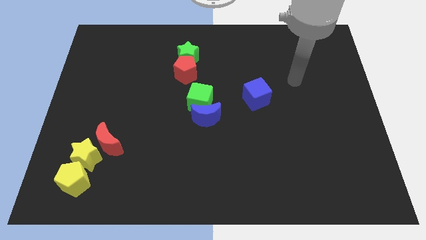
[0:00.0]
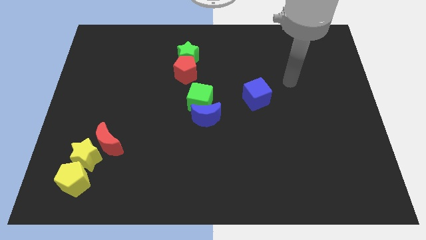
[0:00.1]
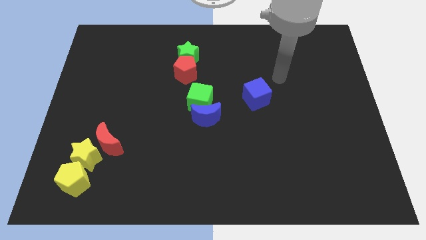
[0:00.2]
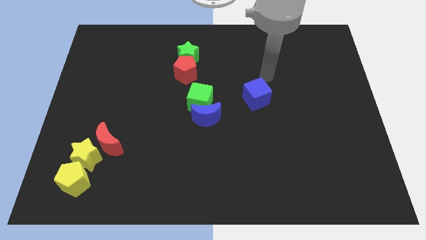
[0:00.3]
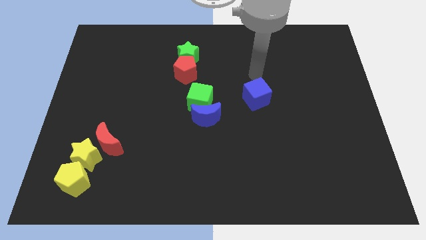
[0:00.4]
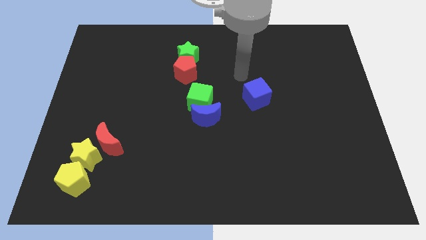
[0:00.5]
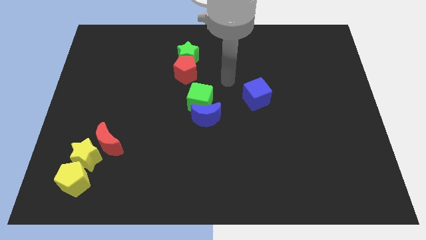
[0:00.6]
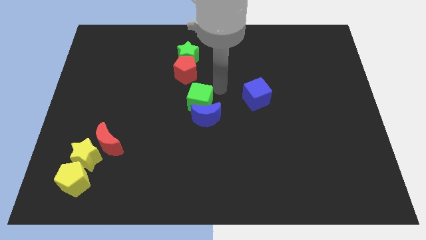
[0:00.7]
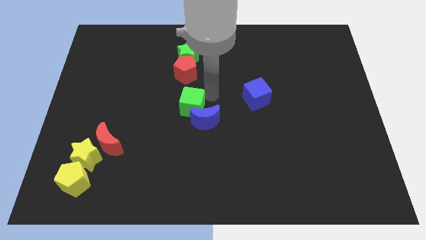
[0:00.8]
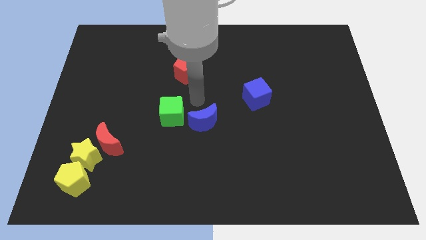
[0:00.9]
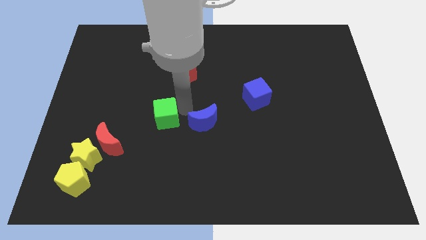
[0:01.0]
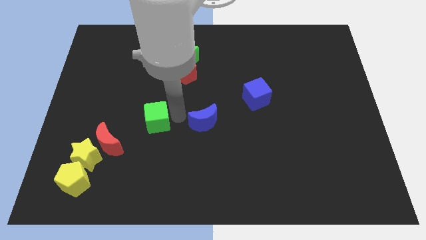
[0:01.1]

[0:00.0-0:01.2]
pull the blue moon apart from the green cube

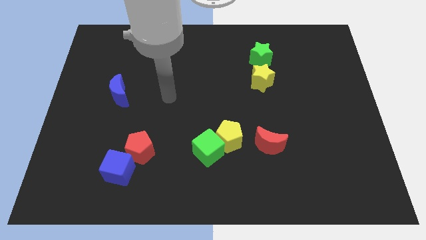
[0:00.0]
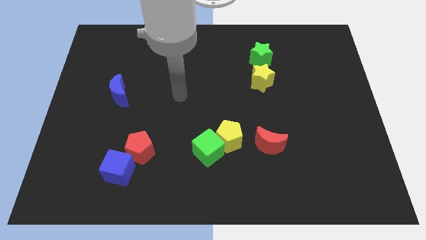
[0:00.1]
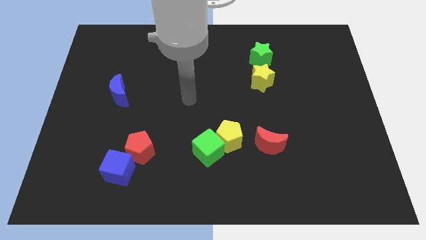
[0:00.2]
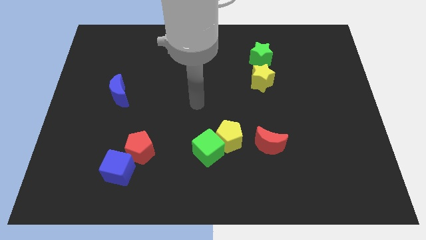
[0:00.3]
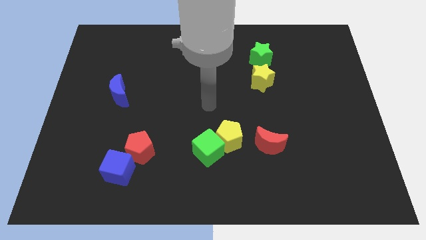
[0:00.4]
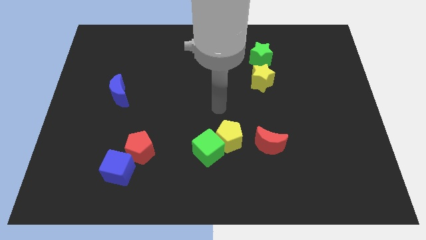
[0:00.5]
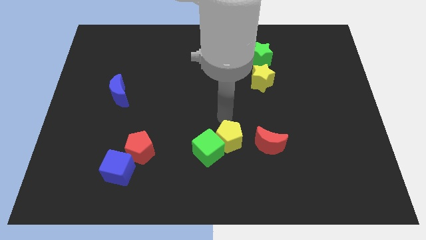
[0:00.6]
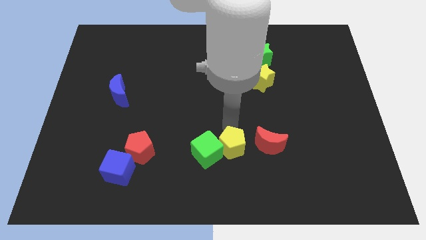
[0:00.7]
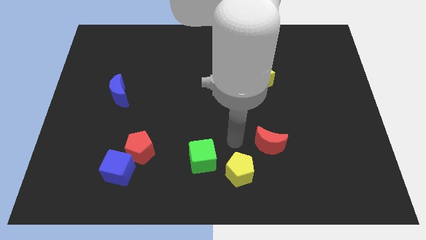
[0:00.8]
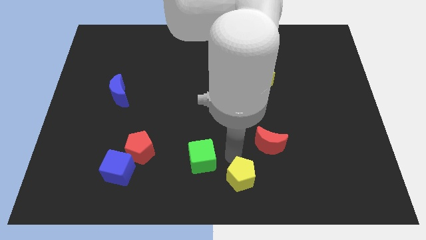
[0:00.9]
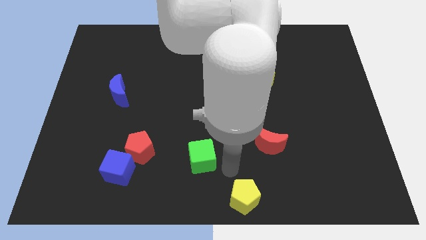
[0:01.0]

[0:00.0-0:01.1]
separate the green cube from the yellow pentagon

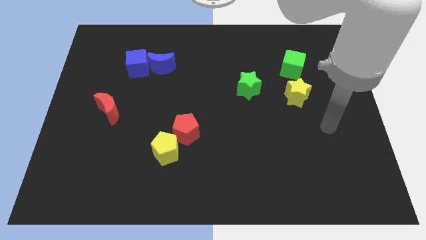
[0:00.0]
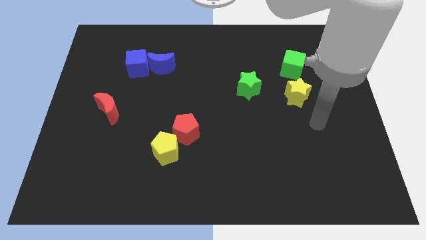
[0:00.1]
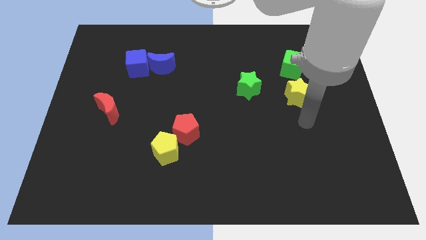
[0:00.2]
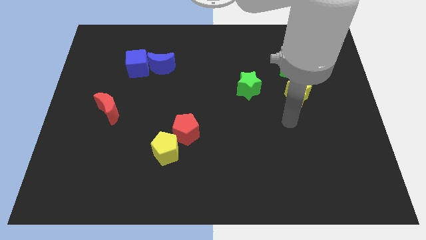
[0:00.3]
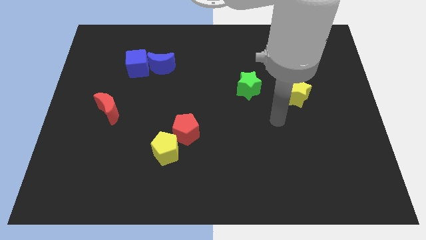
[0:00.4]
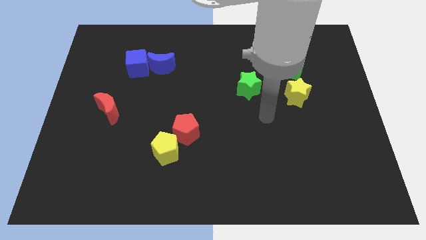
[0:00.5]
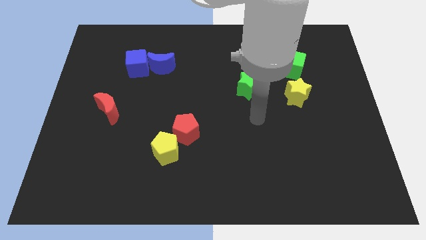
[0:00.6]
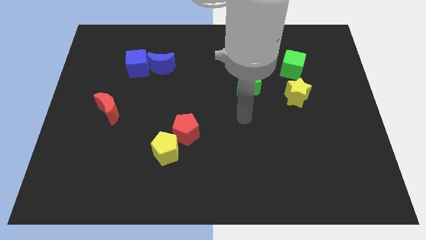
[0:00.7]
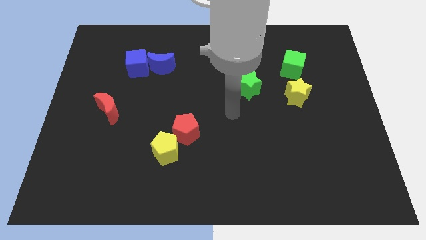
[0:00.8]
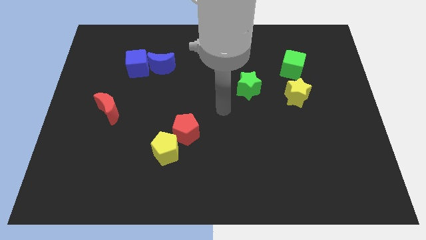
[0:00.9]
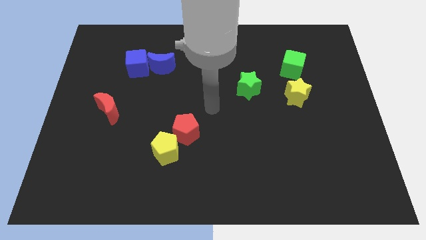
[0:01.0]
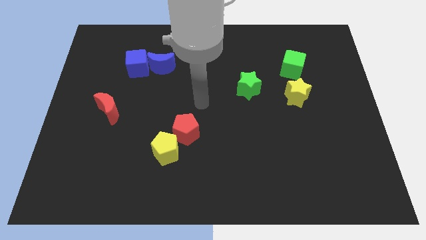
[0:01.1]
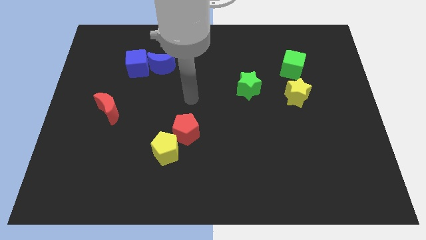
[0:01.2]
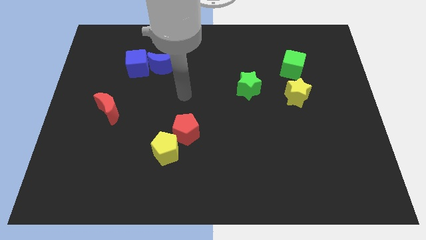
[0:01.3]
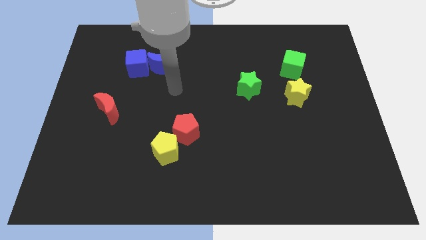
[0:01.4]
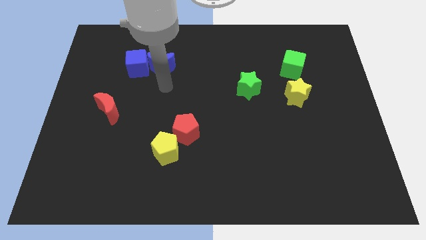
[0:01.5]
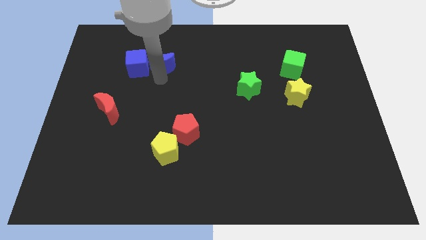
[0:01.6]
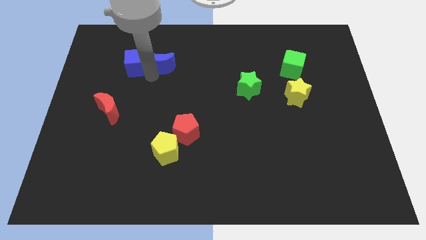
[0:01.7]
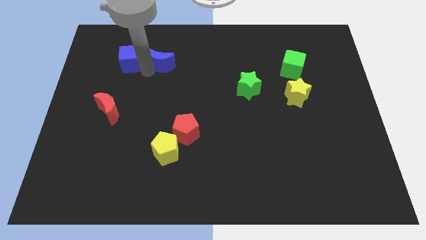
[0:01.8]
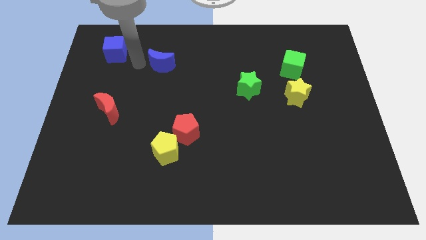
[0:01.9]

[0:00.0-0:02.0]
pull the blue moon apart from the blue cube

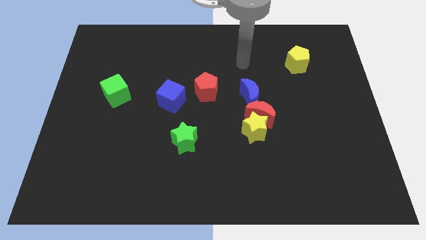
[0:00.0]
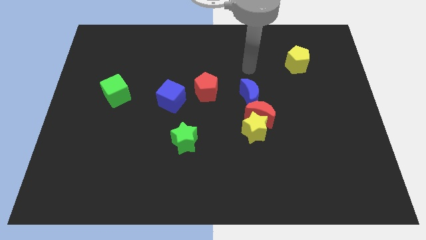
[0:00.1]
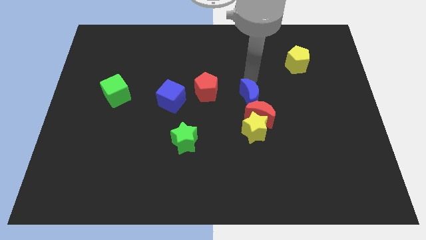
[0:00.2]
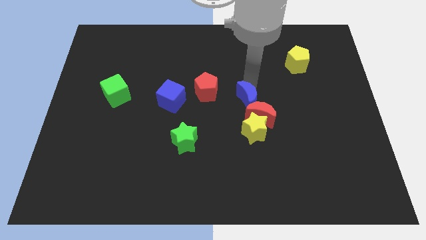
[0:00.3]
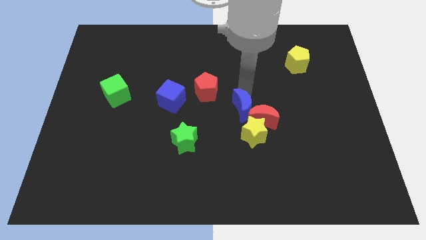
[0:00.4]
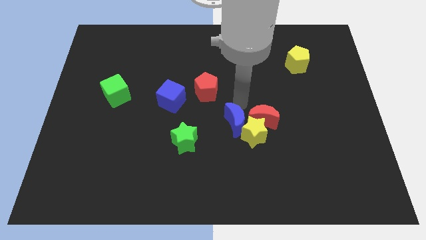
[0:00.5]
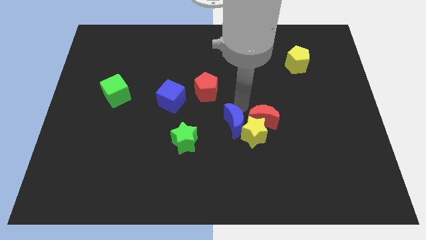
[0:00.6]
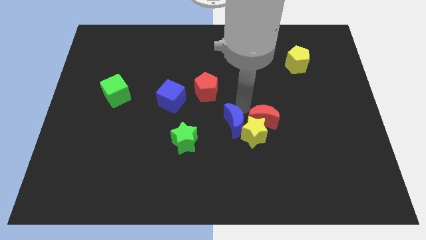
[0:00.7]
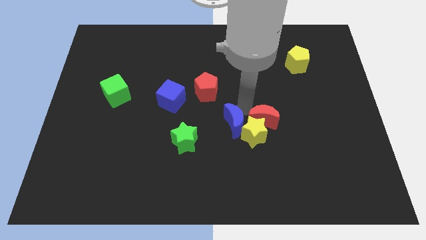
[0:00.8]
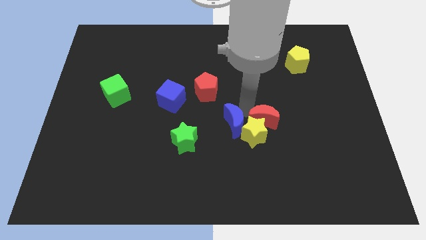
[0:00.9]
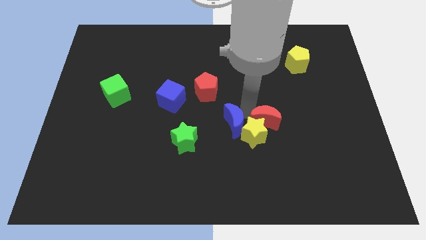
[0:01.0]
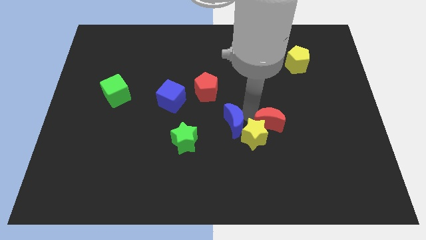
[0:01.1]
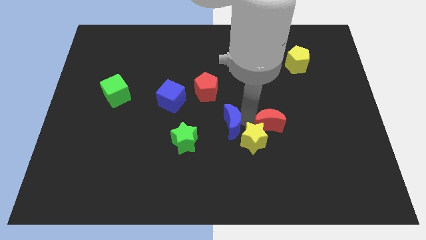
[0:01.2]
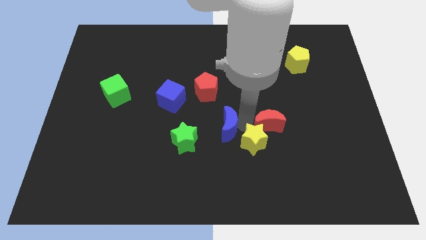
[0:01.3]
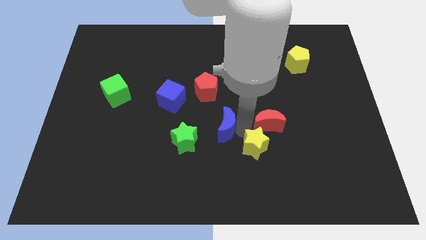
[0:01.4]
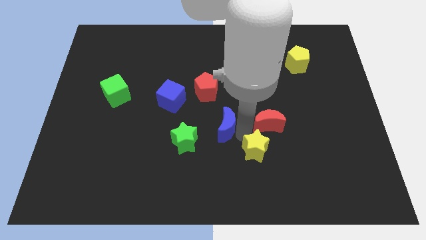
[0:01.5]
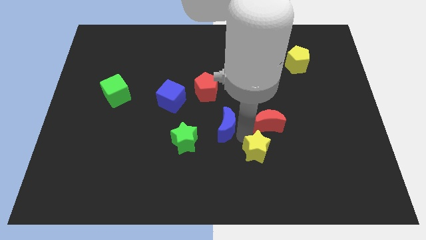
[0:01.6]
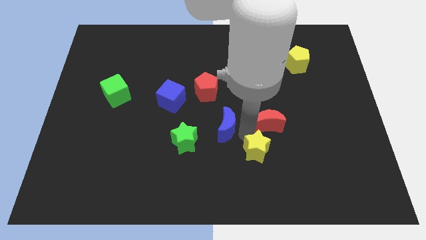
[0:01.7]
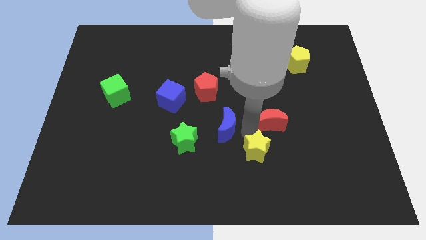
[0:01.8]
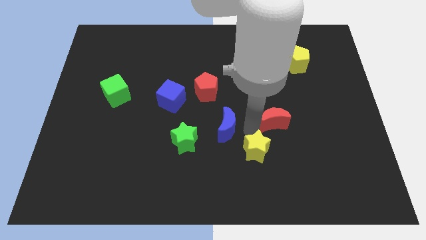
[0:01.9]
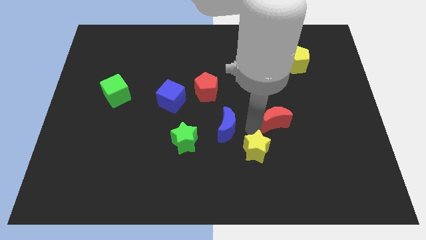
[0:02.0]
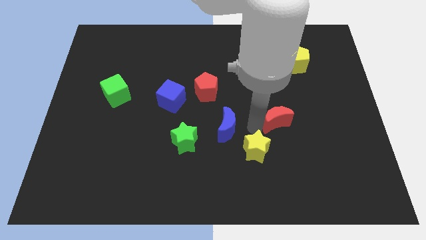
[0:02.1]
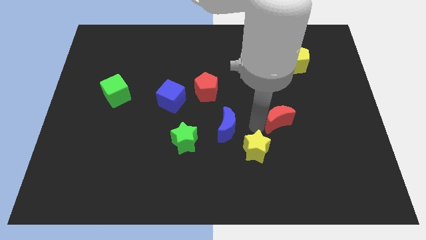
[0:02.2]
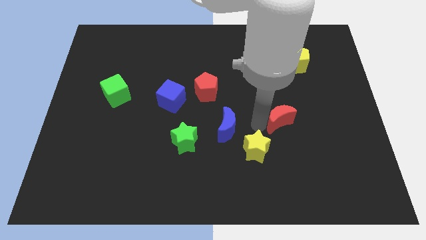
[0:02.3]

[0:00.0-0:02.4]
separate the red moon from the yellow star and blue moon

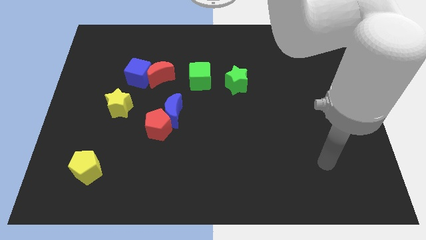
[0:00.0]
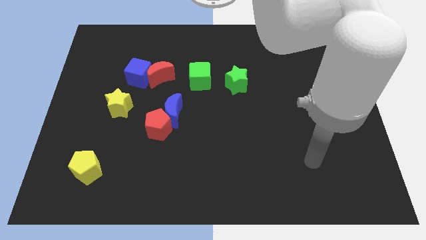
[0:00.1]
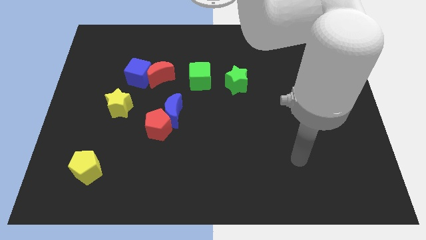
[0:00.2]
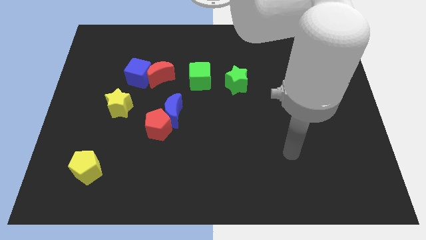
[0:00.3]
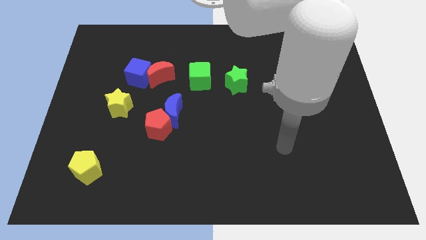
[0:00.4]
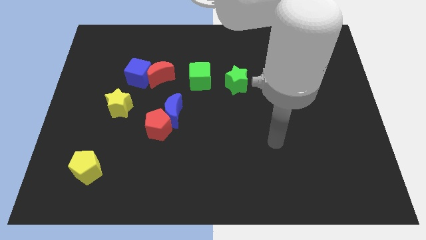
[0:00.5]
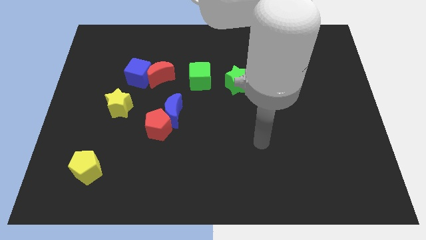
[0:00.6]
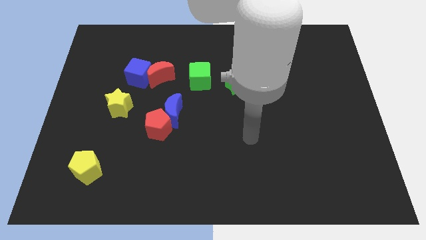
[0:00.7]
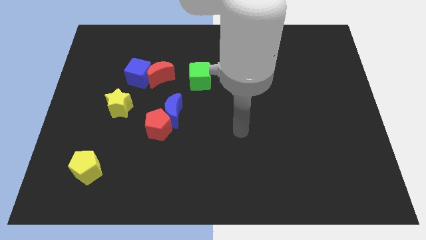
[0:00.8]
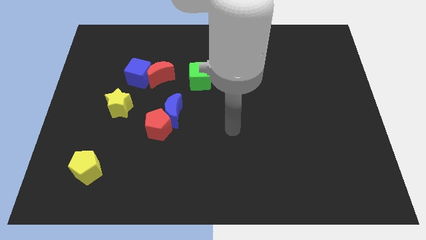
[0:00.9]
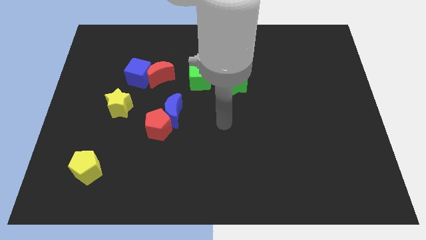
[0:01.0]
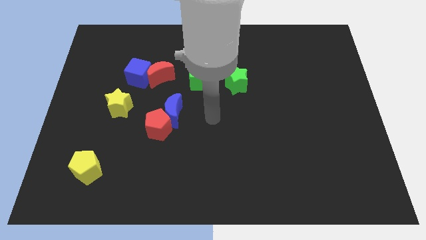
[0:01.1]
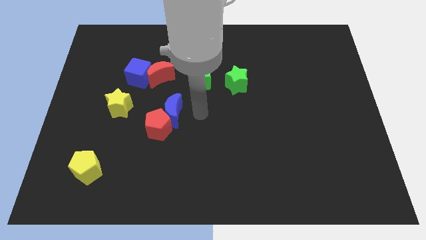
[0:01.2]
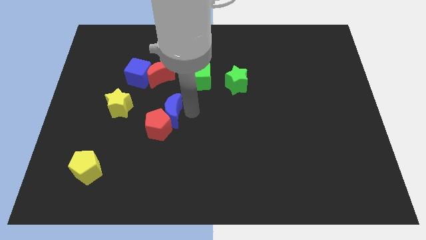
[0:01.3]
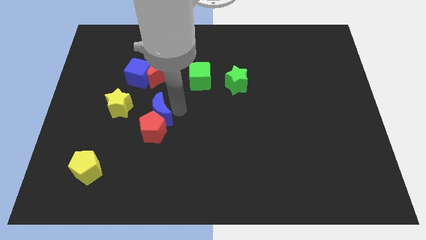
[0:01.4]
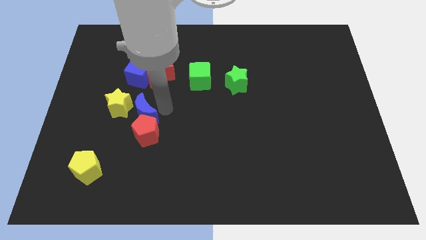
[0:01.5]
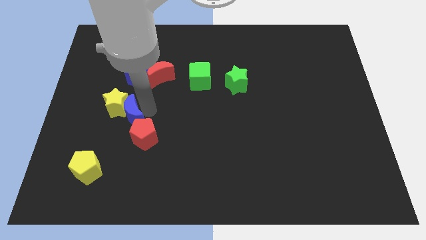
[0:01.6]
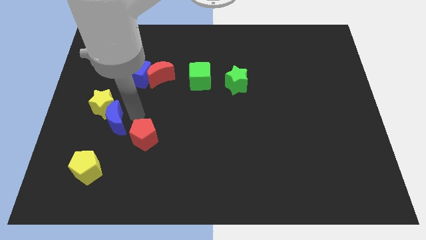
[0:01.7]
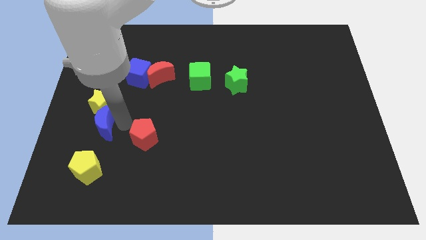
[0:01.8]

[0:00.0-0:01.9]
pull the red pentagon apart from the blue moon

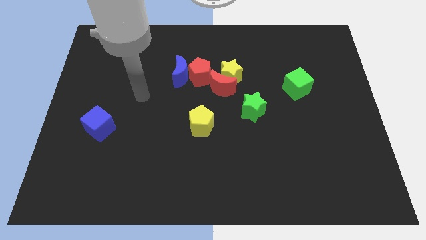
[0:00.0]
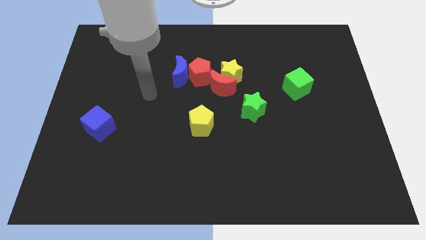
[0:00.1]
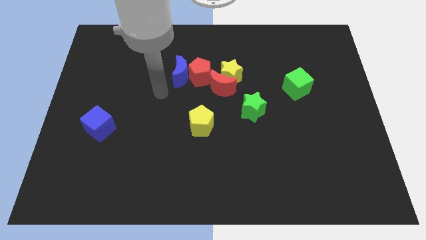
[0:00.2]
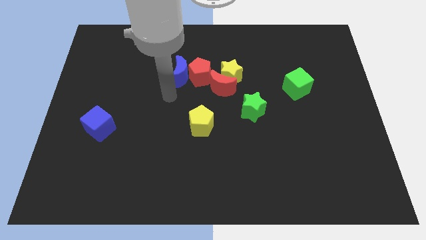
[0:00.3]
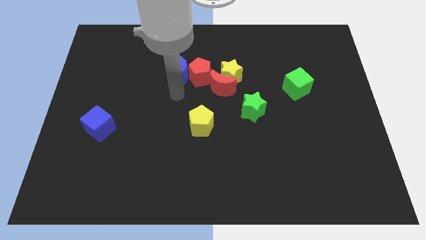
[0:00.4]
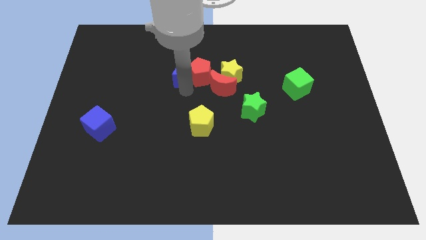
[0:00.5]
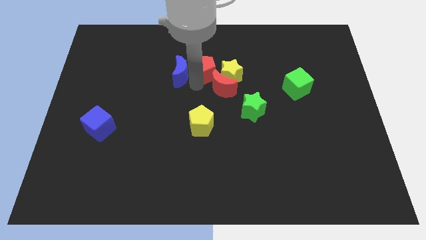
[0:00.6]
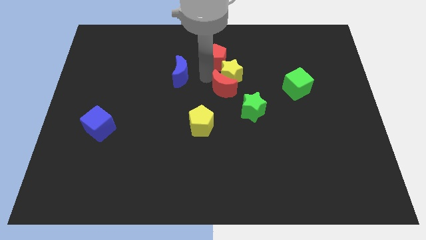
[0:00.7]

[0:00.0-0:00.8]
separate the blue moon from the red pentagon
